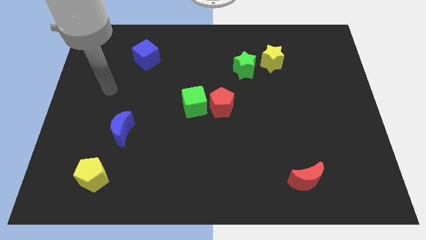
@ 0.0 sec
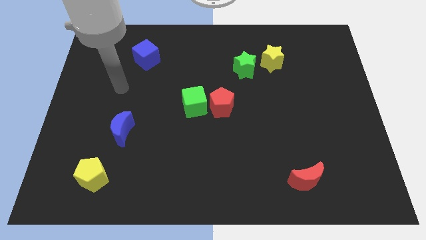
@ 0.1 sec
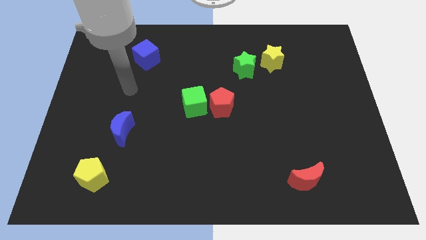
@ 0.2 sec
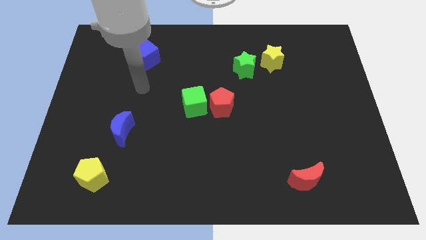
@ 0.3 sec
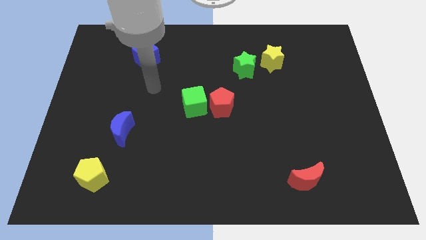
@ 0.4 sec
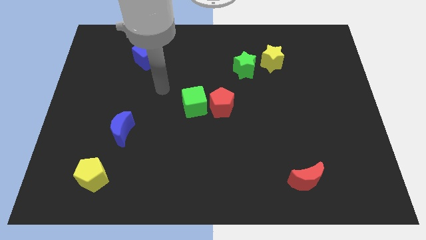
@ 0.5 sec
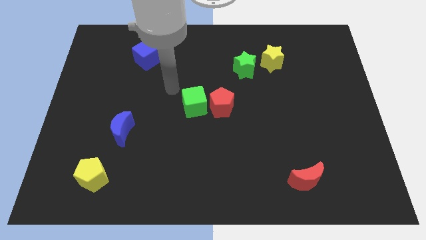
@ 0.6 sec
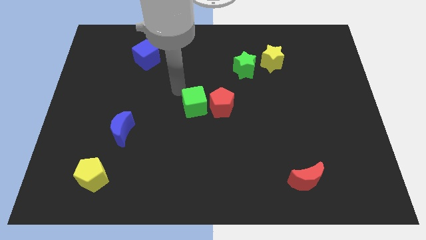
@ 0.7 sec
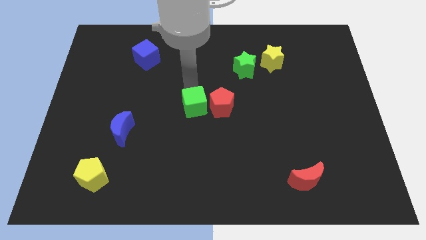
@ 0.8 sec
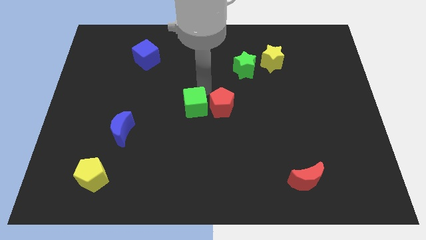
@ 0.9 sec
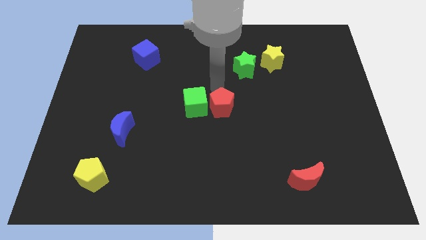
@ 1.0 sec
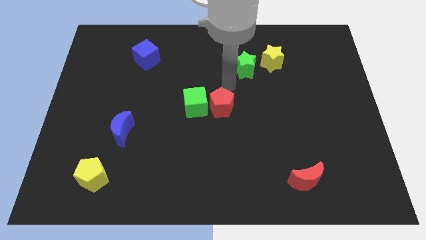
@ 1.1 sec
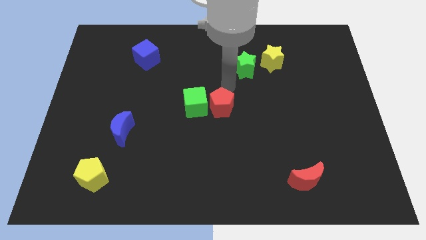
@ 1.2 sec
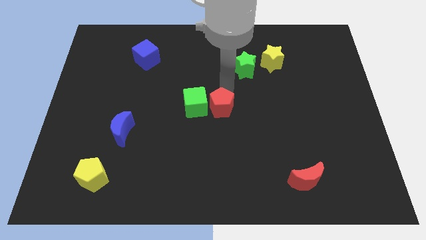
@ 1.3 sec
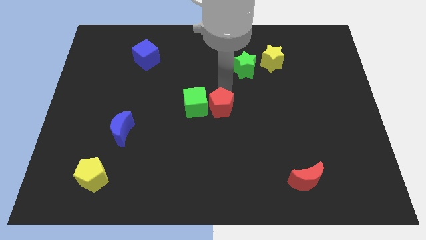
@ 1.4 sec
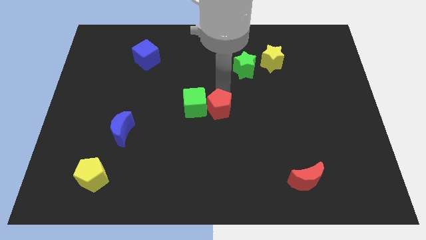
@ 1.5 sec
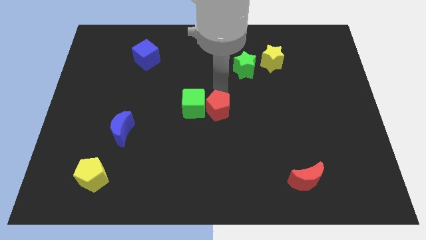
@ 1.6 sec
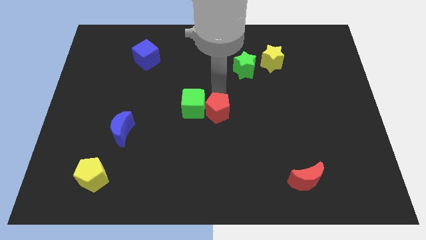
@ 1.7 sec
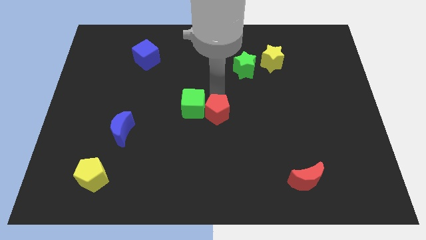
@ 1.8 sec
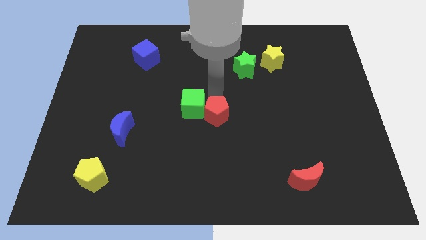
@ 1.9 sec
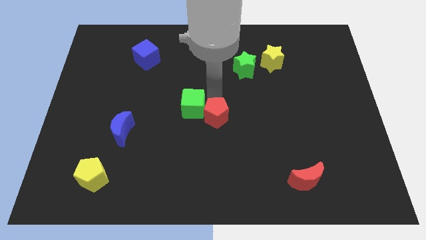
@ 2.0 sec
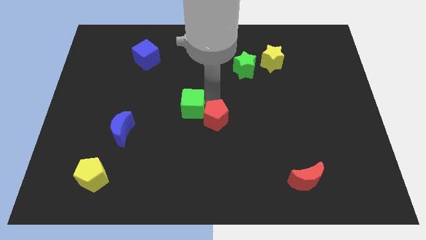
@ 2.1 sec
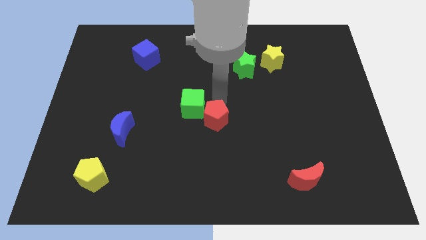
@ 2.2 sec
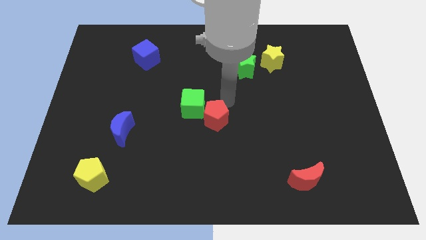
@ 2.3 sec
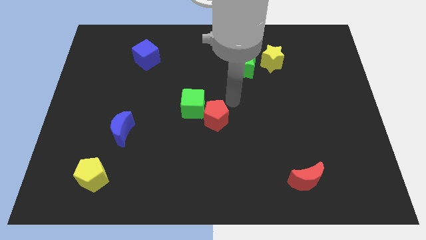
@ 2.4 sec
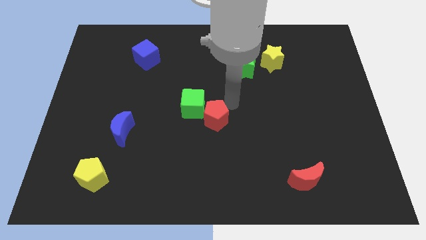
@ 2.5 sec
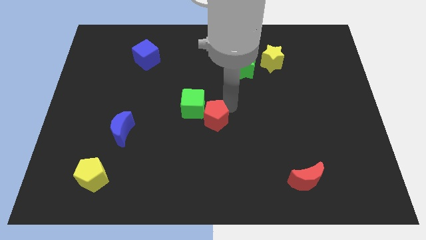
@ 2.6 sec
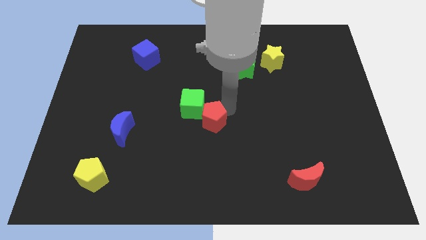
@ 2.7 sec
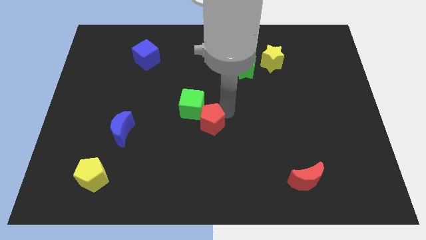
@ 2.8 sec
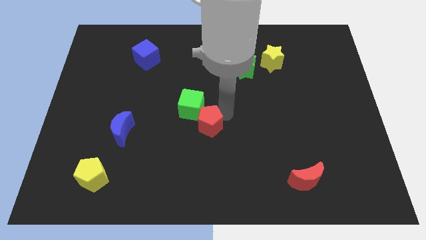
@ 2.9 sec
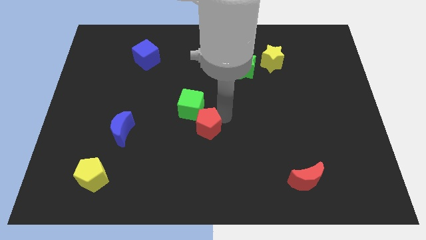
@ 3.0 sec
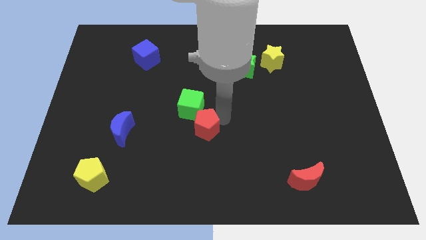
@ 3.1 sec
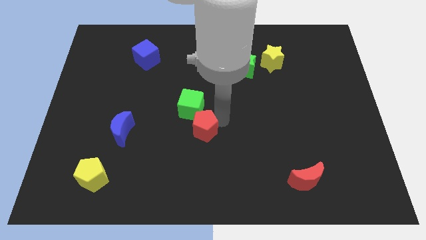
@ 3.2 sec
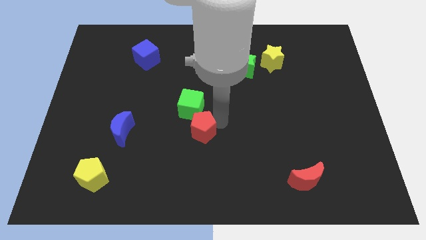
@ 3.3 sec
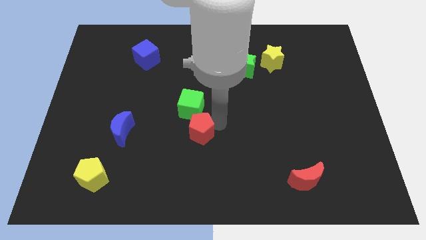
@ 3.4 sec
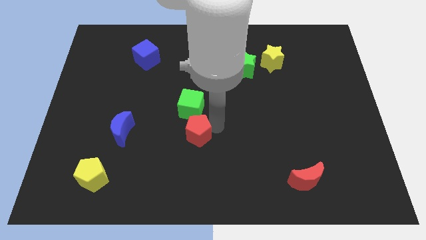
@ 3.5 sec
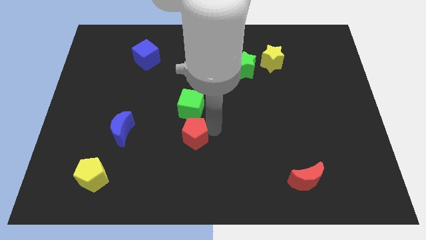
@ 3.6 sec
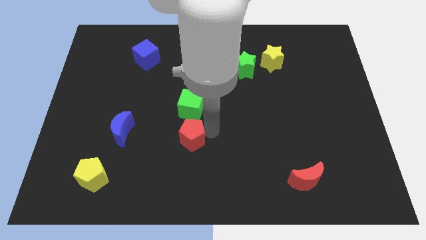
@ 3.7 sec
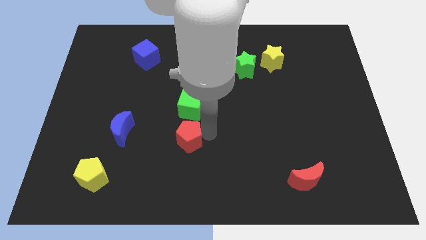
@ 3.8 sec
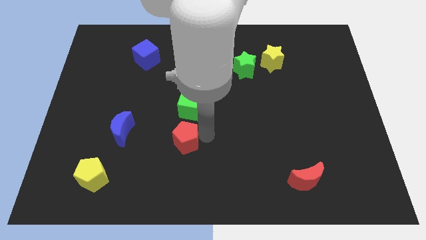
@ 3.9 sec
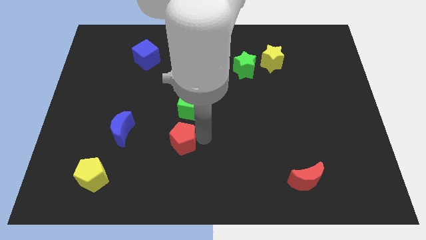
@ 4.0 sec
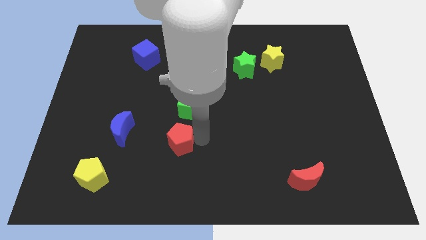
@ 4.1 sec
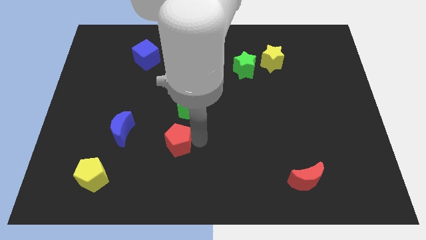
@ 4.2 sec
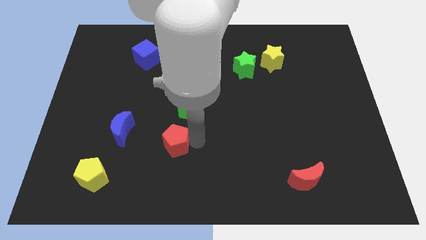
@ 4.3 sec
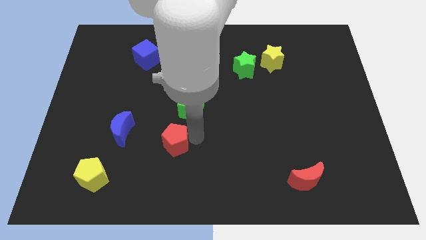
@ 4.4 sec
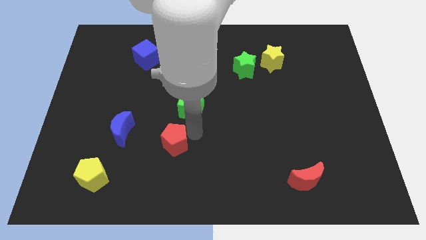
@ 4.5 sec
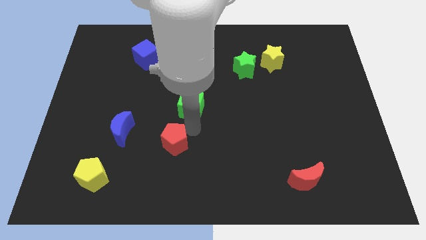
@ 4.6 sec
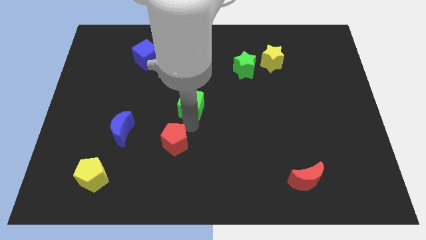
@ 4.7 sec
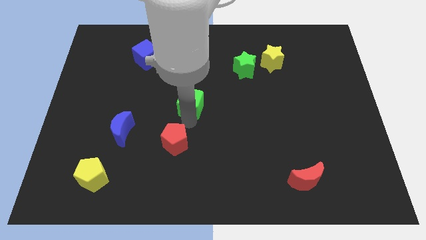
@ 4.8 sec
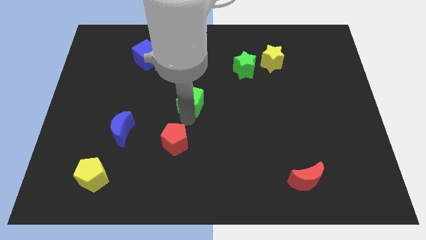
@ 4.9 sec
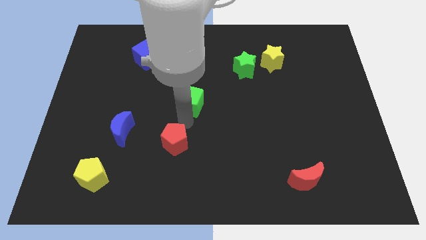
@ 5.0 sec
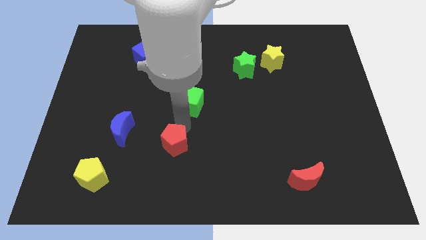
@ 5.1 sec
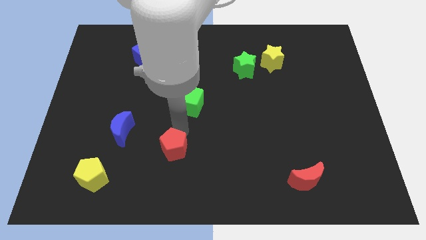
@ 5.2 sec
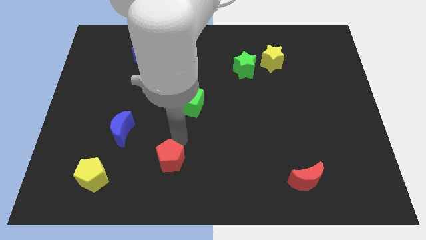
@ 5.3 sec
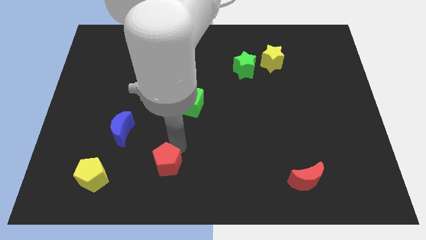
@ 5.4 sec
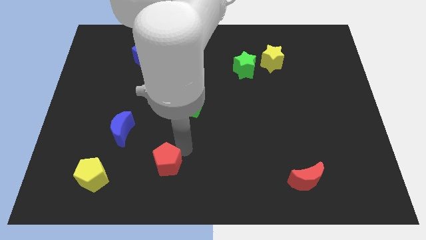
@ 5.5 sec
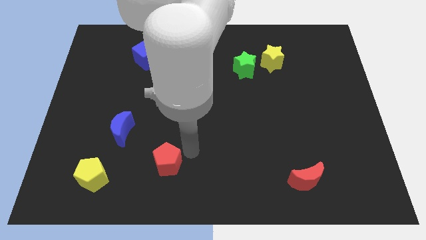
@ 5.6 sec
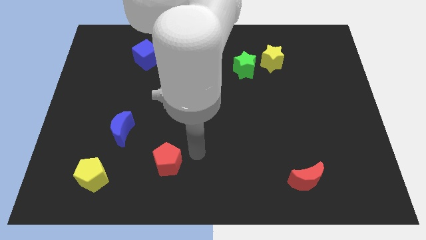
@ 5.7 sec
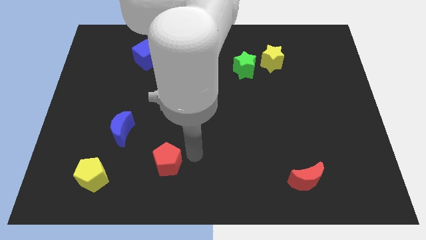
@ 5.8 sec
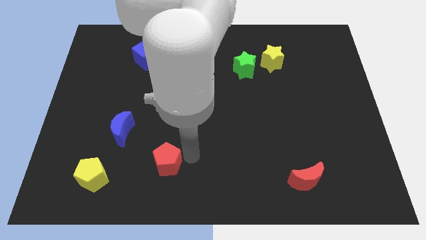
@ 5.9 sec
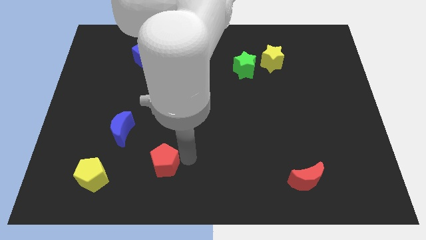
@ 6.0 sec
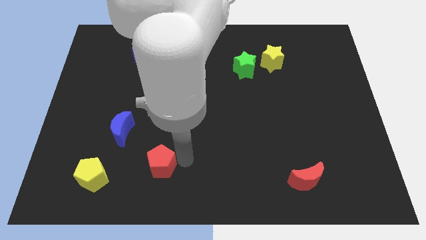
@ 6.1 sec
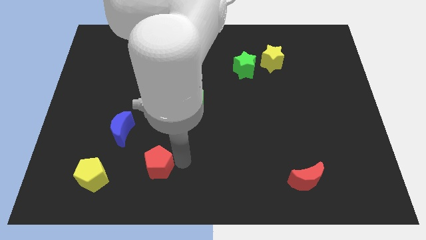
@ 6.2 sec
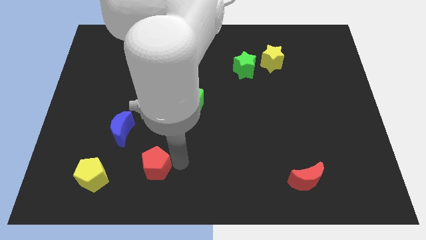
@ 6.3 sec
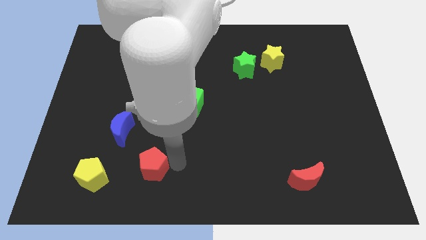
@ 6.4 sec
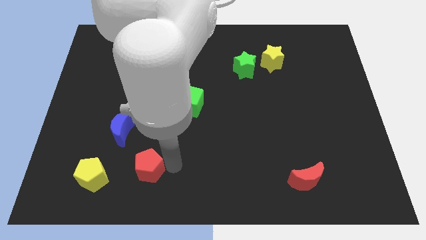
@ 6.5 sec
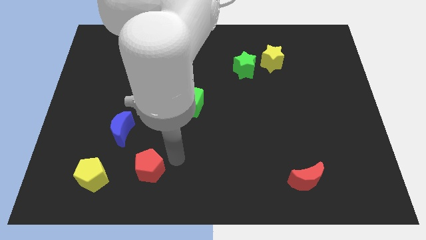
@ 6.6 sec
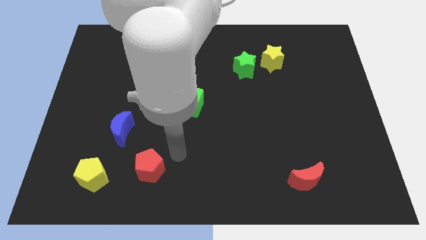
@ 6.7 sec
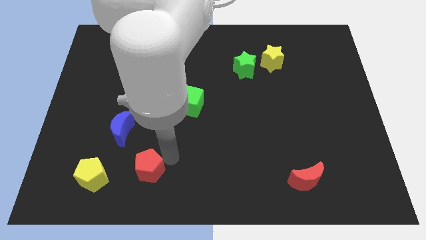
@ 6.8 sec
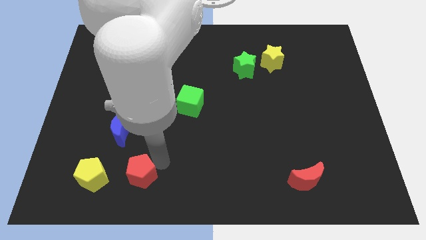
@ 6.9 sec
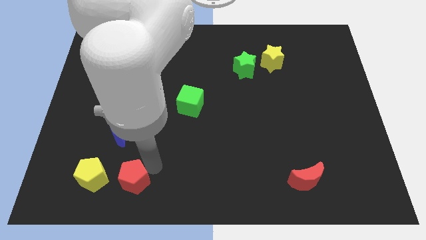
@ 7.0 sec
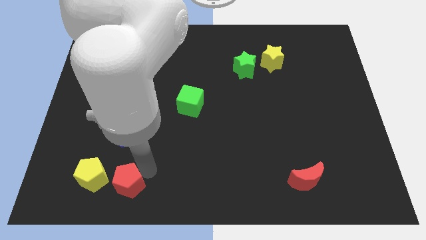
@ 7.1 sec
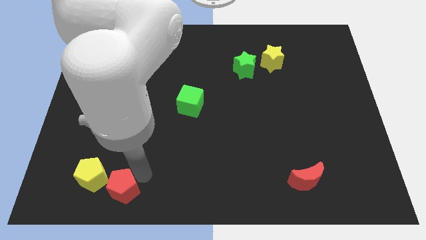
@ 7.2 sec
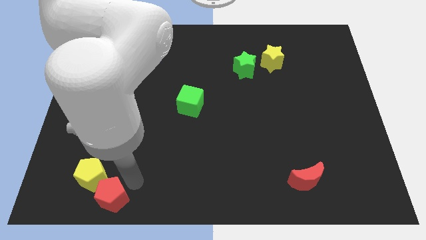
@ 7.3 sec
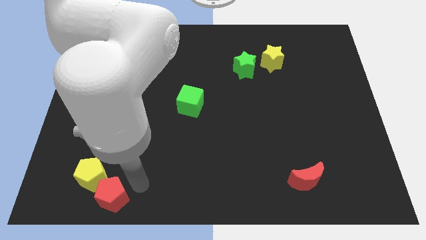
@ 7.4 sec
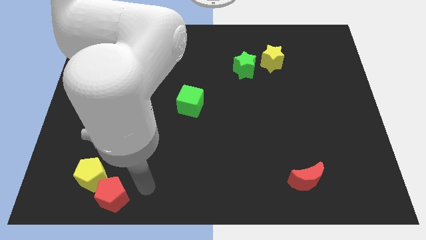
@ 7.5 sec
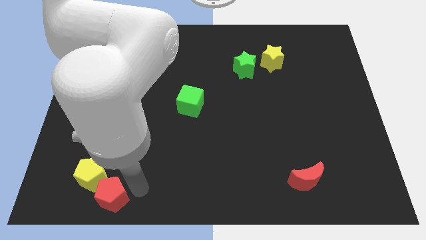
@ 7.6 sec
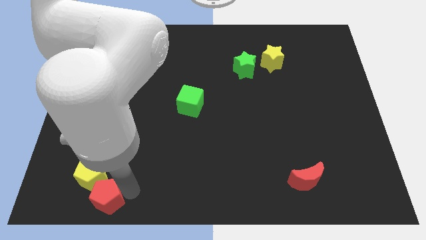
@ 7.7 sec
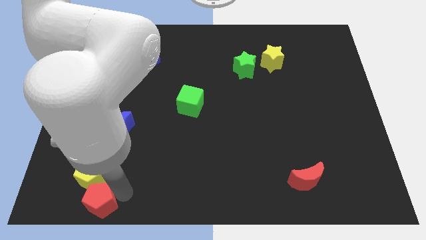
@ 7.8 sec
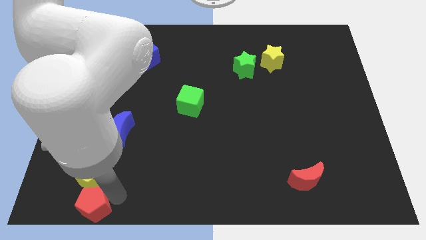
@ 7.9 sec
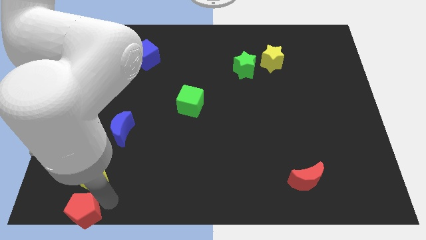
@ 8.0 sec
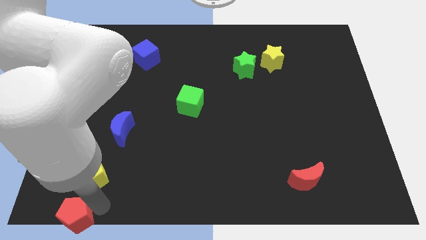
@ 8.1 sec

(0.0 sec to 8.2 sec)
push the red pentagon to the bottom left corner
